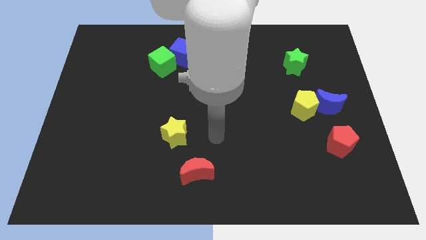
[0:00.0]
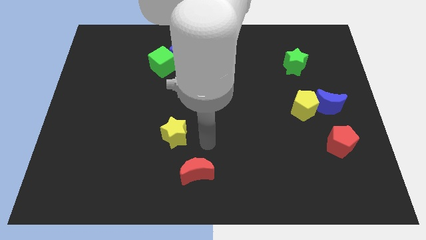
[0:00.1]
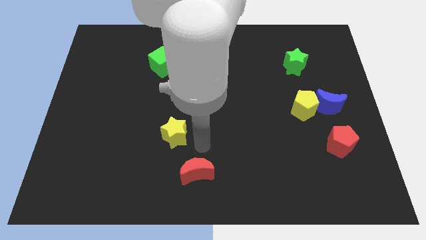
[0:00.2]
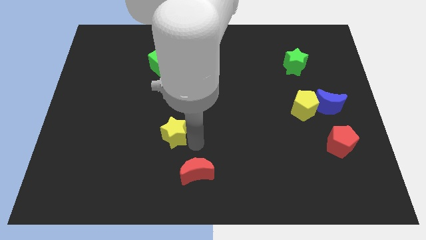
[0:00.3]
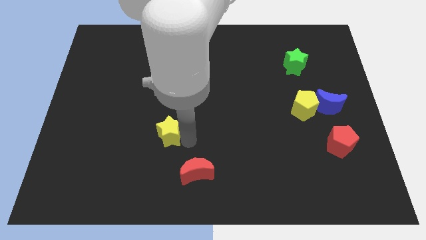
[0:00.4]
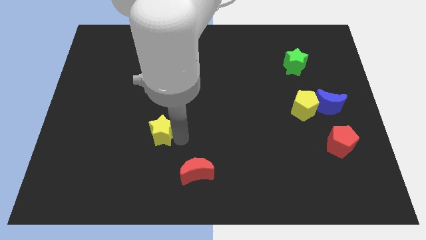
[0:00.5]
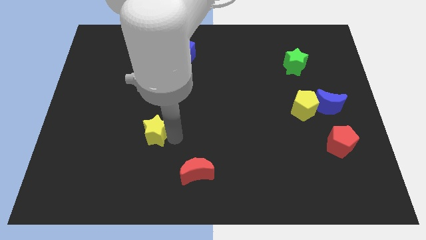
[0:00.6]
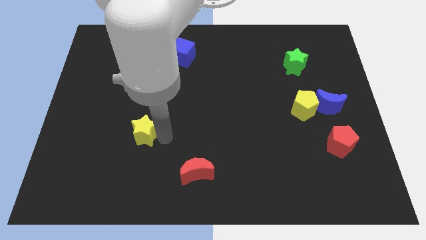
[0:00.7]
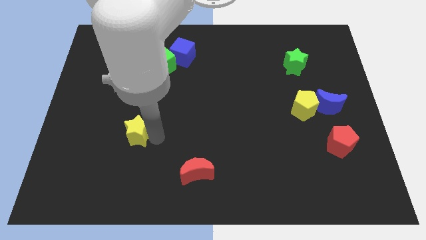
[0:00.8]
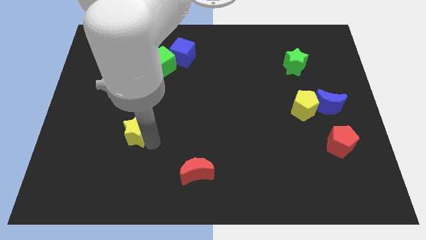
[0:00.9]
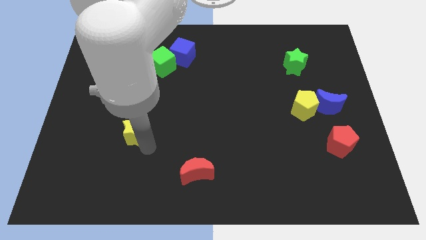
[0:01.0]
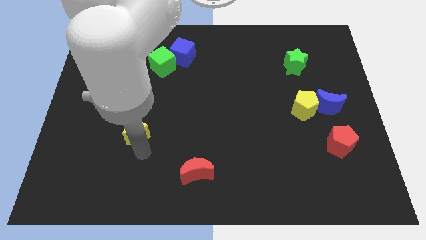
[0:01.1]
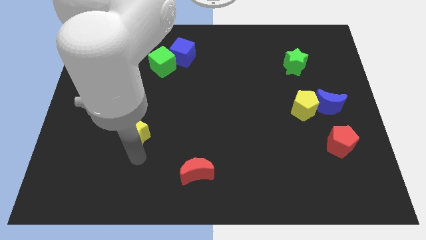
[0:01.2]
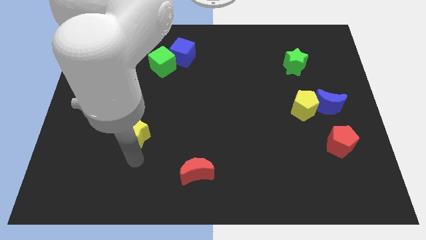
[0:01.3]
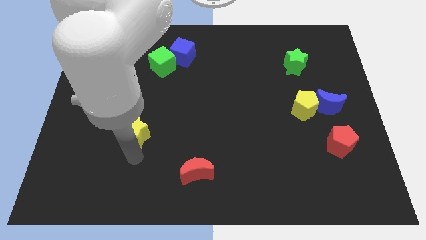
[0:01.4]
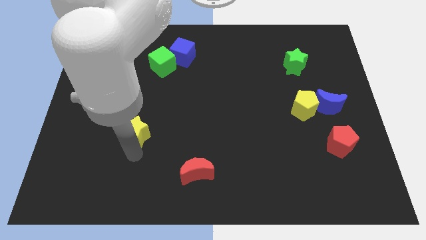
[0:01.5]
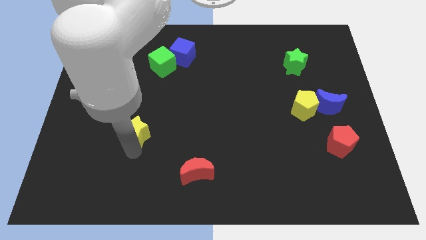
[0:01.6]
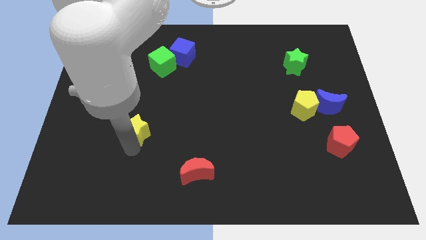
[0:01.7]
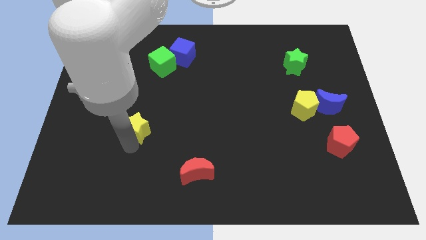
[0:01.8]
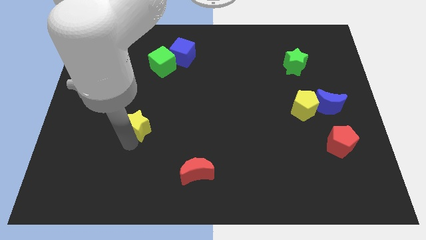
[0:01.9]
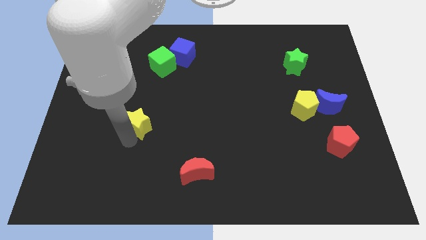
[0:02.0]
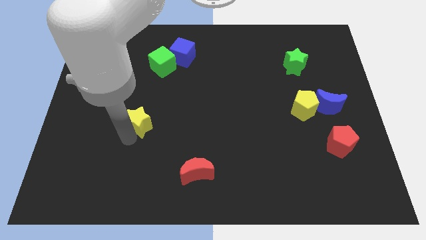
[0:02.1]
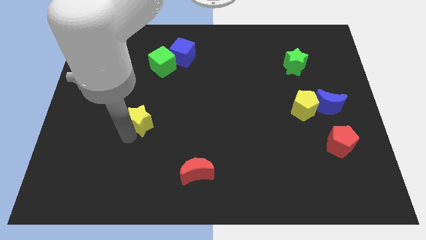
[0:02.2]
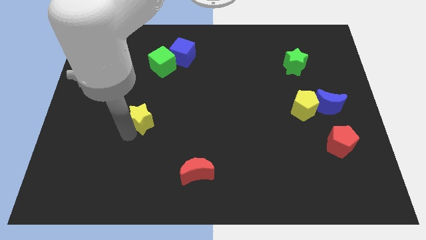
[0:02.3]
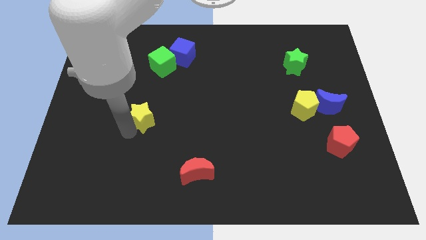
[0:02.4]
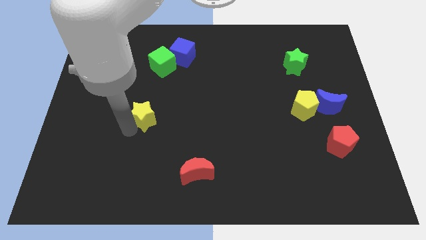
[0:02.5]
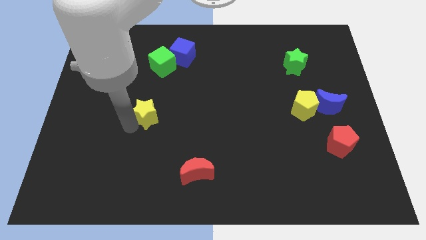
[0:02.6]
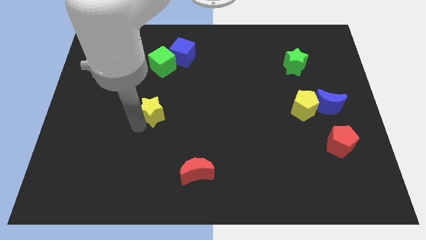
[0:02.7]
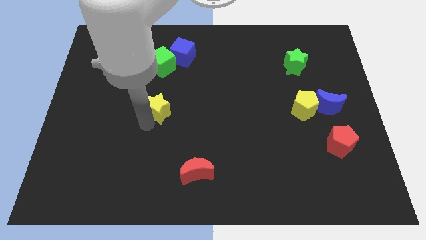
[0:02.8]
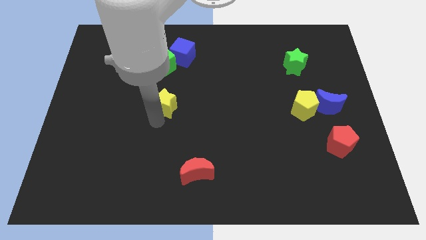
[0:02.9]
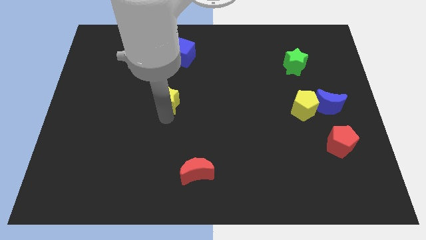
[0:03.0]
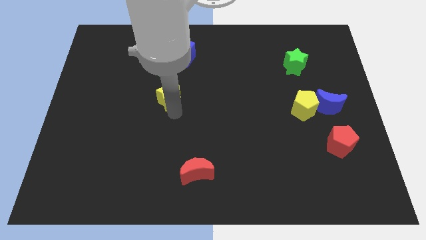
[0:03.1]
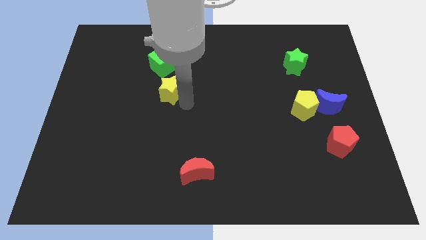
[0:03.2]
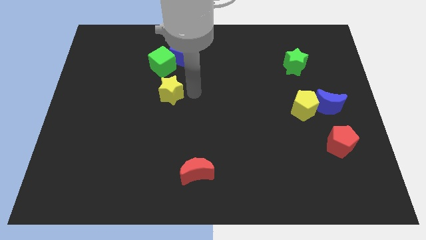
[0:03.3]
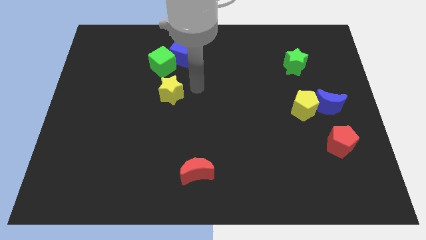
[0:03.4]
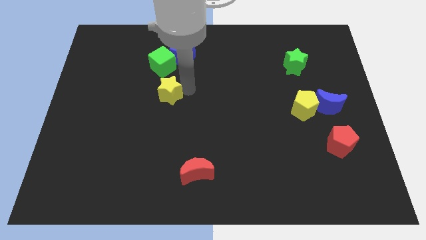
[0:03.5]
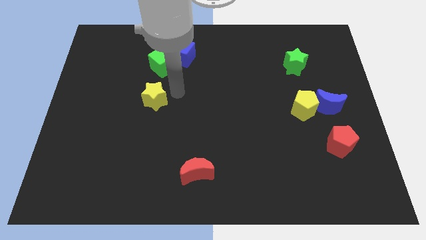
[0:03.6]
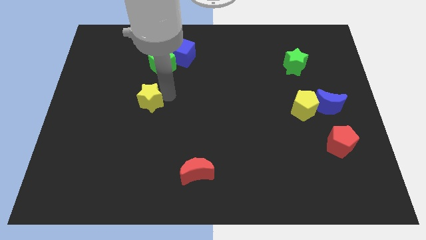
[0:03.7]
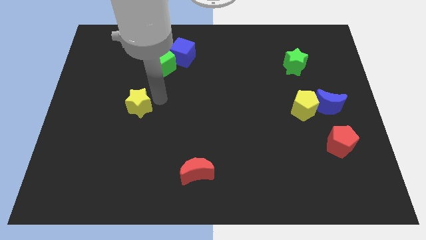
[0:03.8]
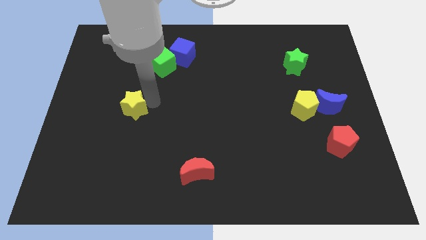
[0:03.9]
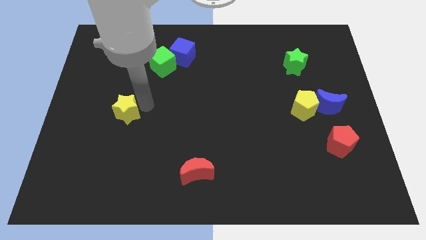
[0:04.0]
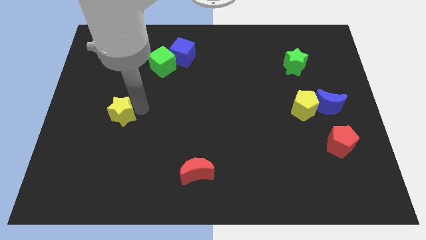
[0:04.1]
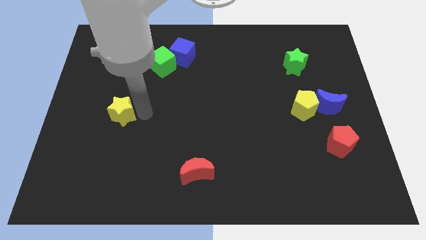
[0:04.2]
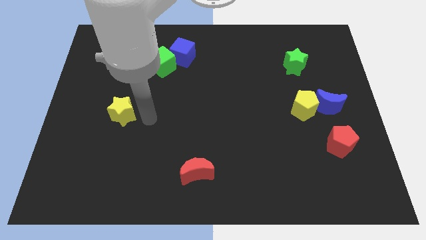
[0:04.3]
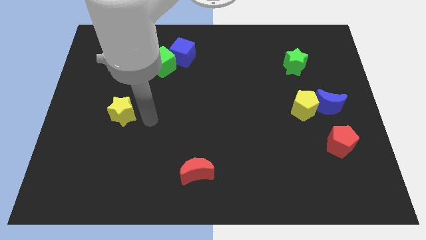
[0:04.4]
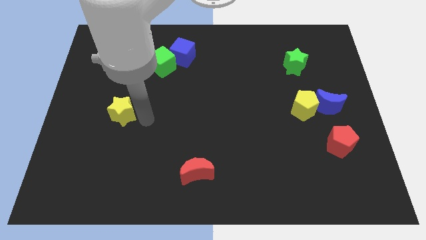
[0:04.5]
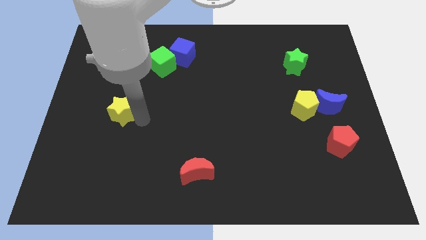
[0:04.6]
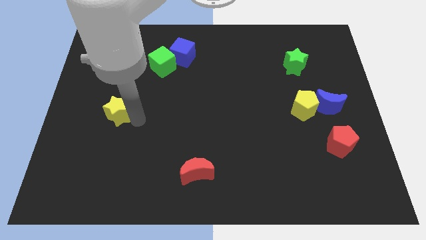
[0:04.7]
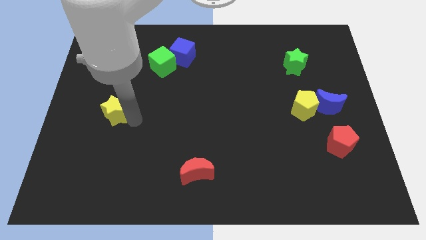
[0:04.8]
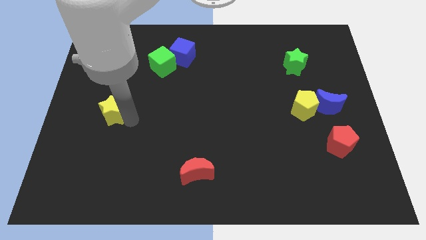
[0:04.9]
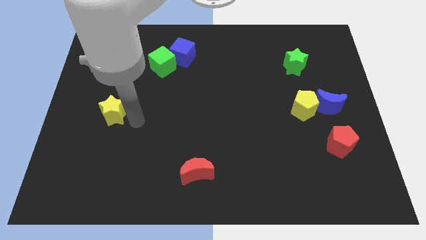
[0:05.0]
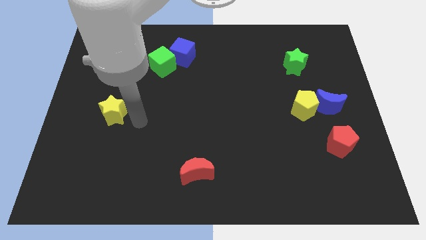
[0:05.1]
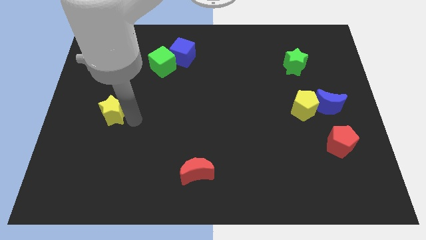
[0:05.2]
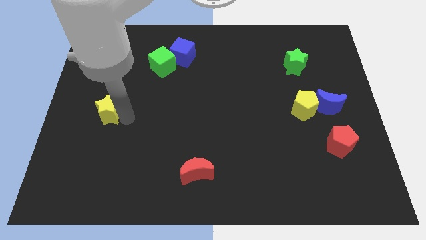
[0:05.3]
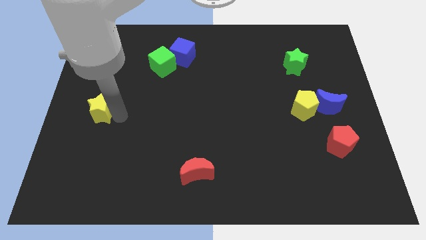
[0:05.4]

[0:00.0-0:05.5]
move the yellow star to the left side of the board

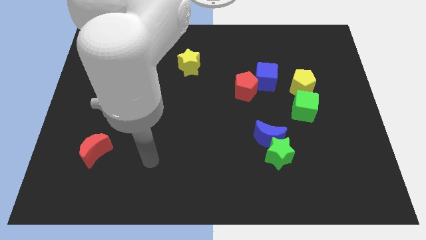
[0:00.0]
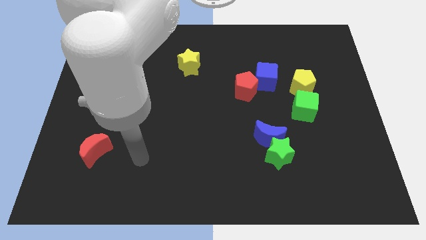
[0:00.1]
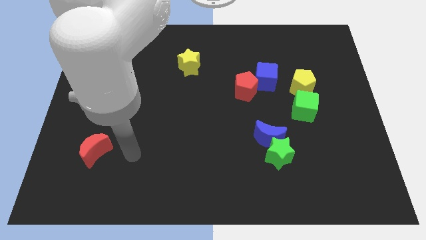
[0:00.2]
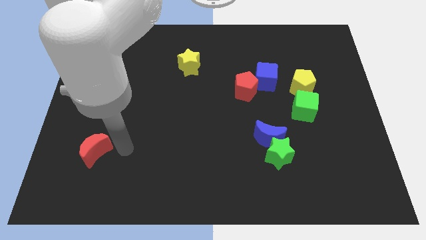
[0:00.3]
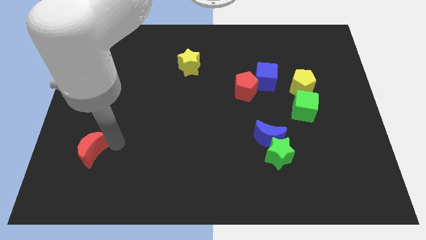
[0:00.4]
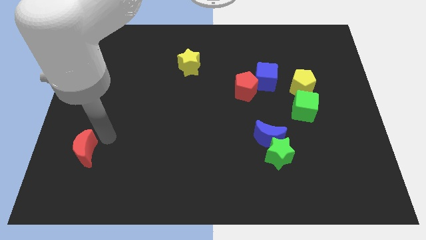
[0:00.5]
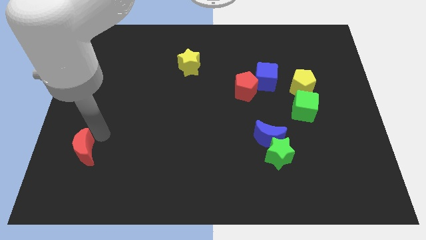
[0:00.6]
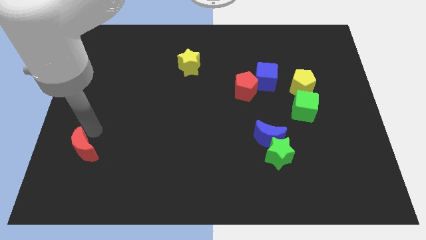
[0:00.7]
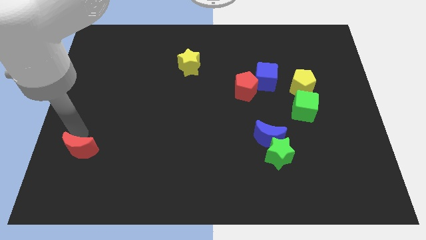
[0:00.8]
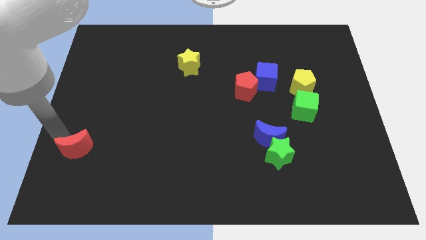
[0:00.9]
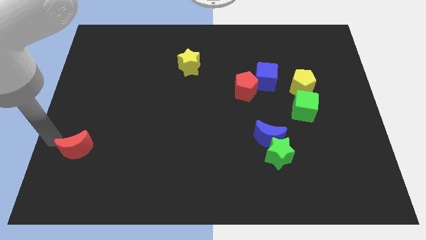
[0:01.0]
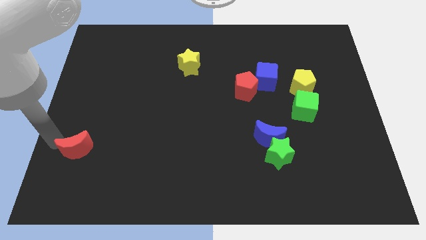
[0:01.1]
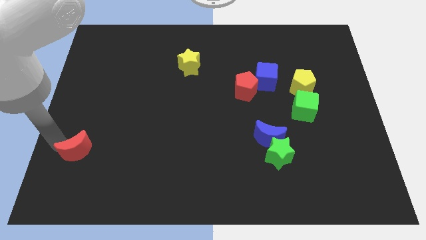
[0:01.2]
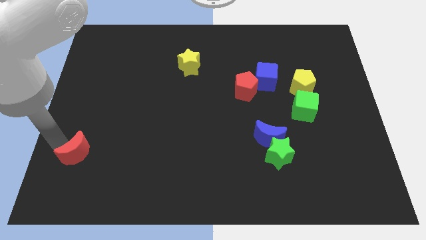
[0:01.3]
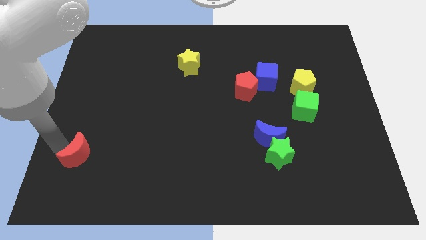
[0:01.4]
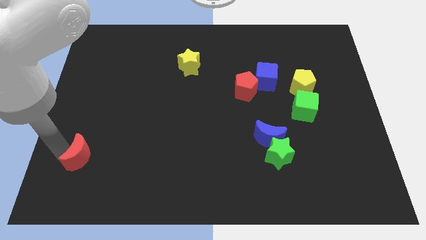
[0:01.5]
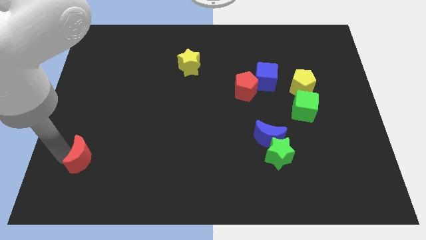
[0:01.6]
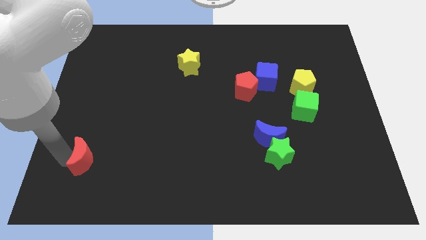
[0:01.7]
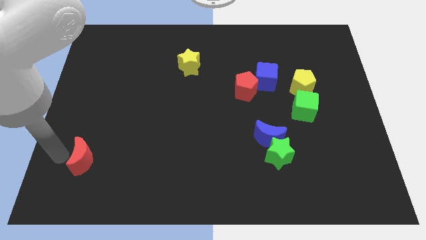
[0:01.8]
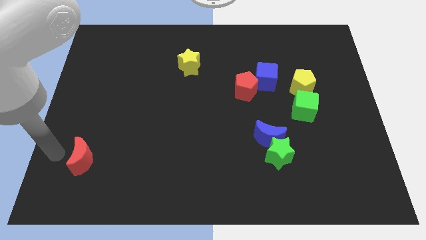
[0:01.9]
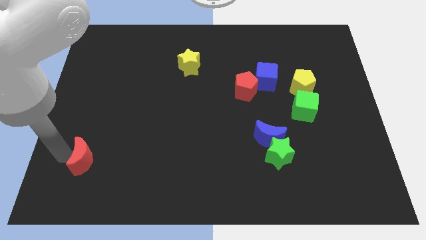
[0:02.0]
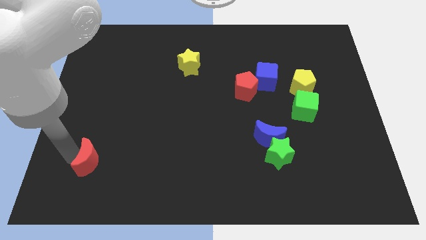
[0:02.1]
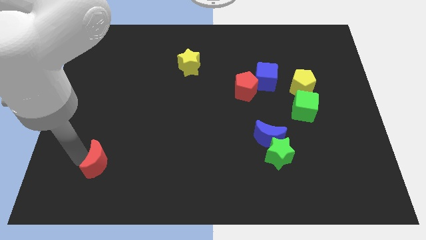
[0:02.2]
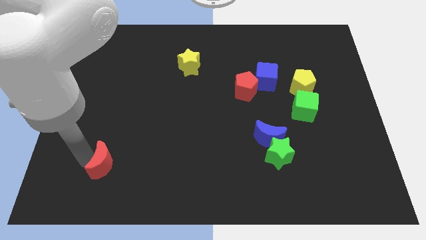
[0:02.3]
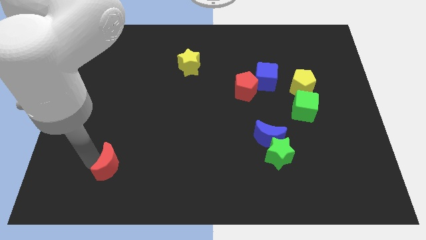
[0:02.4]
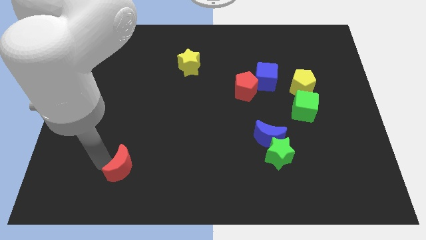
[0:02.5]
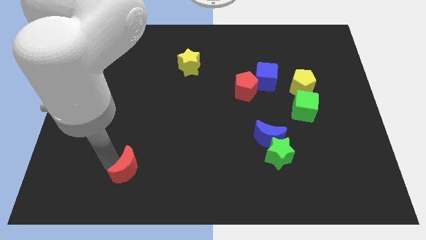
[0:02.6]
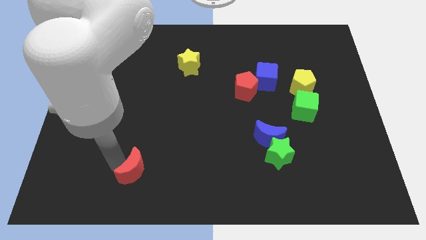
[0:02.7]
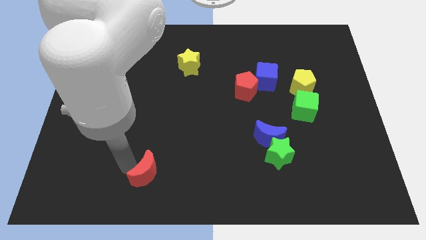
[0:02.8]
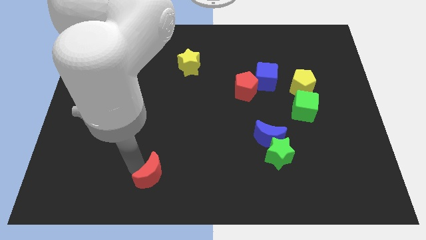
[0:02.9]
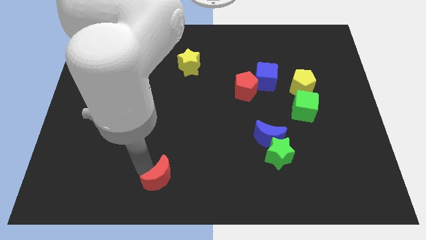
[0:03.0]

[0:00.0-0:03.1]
slide the red moon to the bottom
